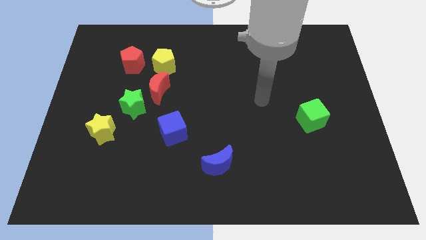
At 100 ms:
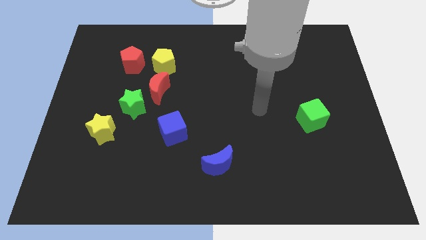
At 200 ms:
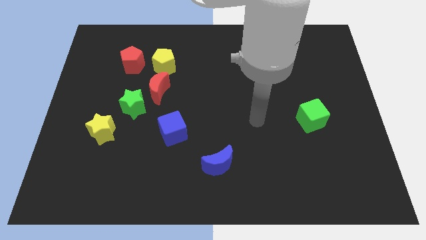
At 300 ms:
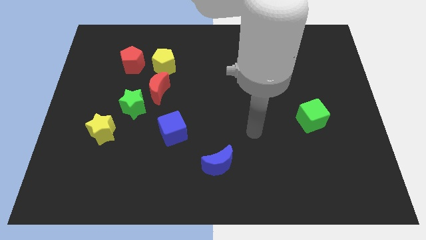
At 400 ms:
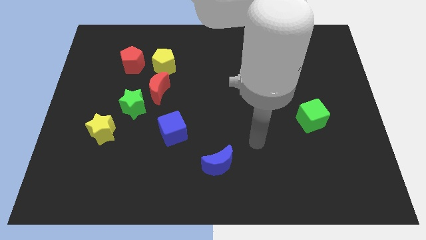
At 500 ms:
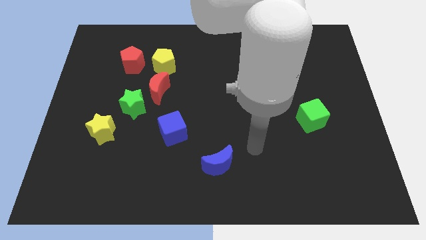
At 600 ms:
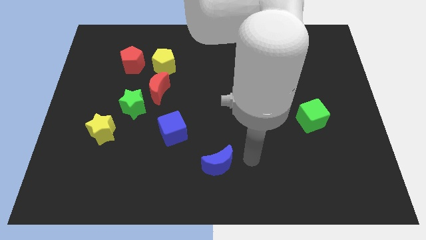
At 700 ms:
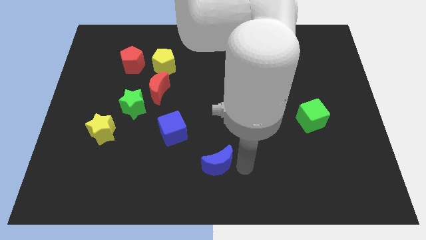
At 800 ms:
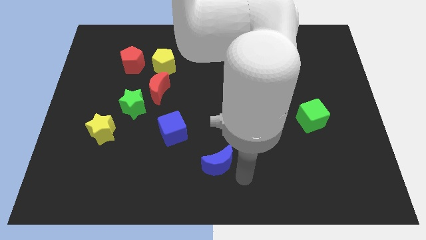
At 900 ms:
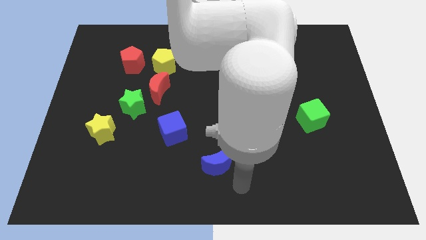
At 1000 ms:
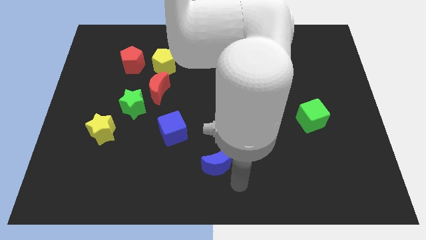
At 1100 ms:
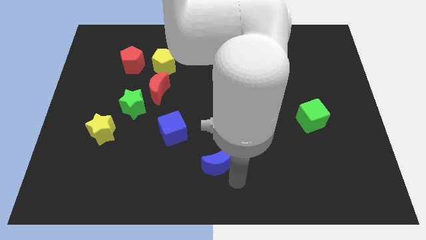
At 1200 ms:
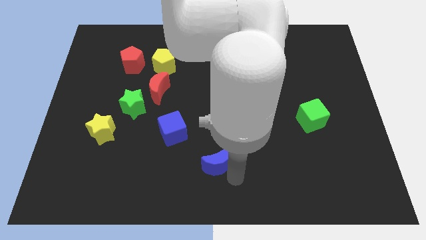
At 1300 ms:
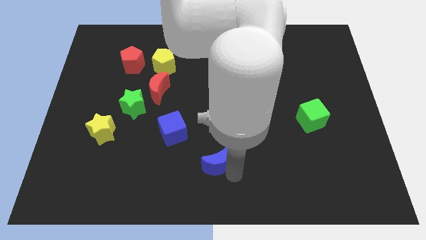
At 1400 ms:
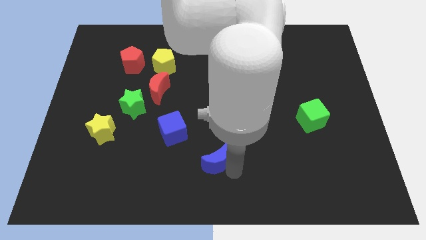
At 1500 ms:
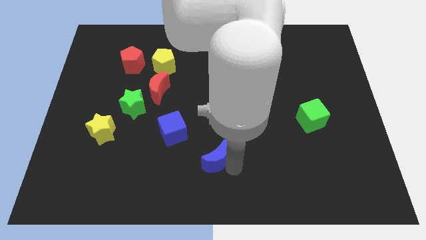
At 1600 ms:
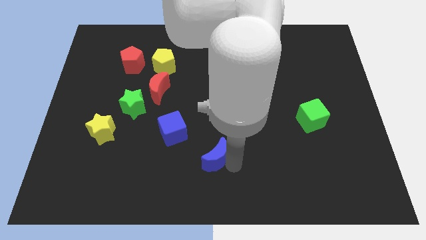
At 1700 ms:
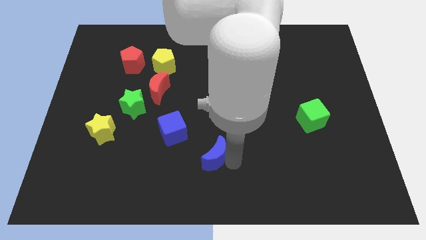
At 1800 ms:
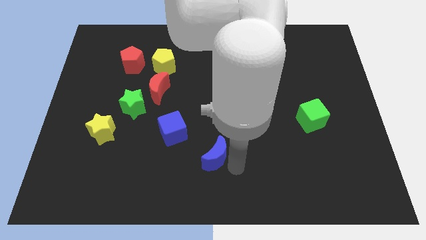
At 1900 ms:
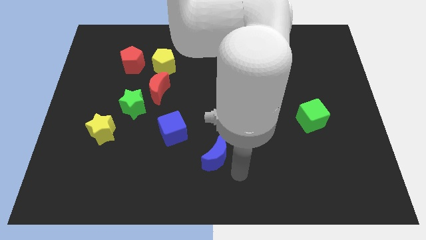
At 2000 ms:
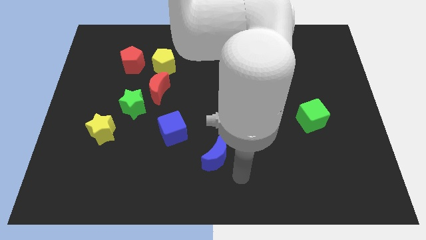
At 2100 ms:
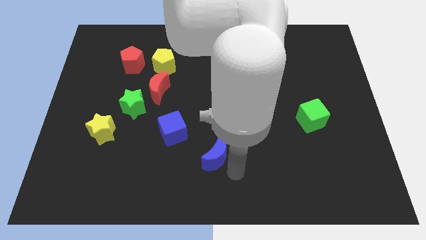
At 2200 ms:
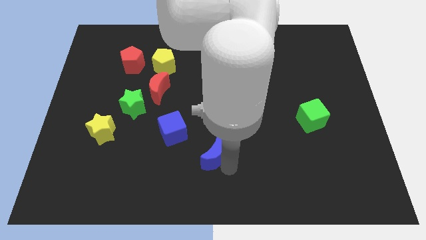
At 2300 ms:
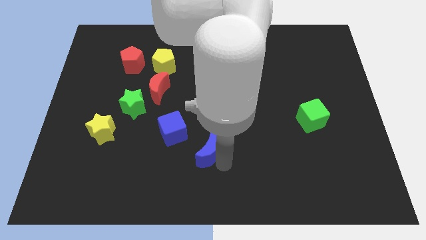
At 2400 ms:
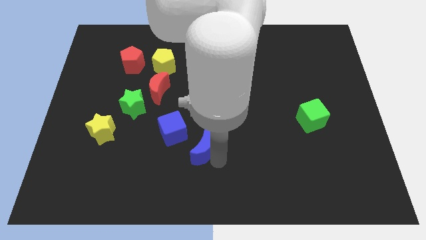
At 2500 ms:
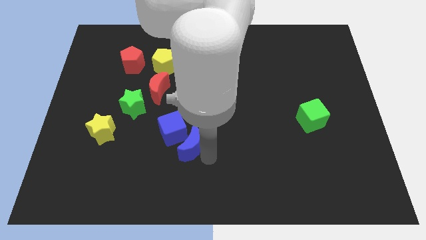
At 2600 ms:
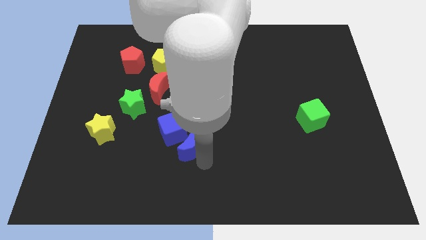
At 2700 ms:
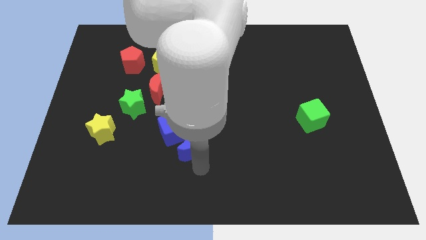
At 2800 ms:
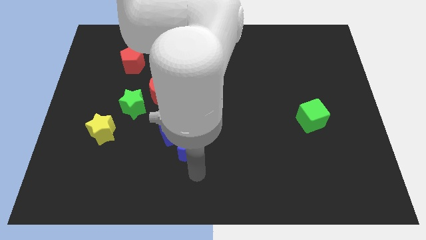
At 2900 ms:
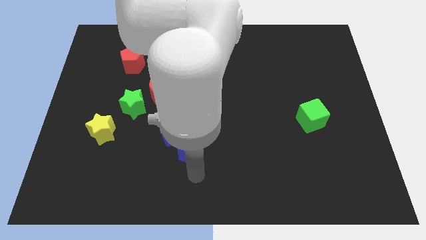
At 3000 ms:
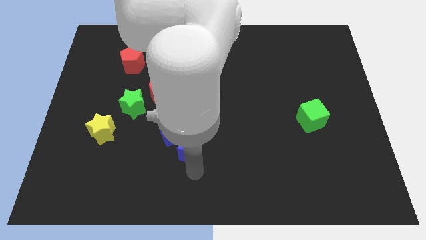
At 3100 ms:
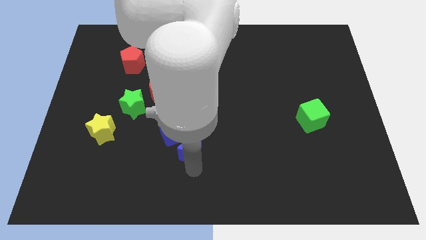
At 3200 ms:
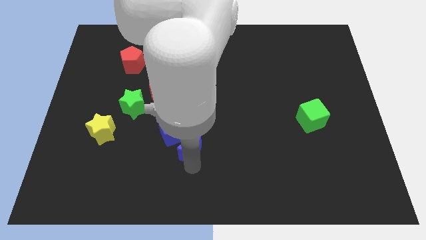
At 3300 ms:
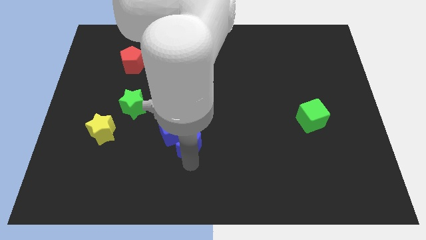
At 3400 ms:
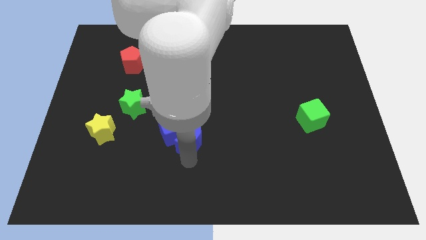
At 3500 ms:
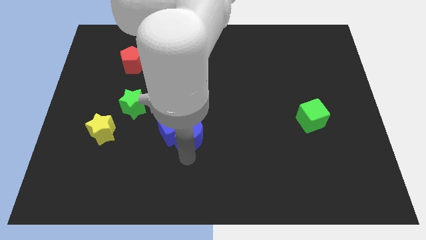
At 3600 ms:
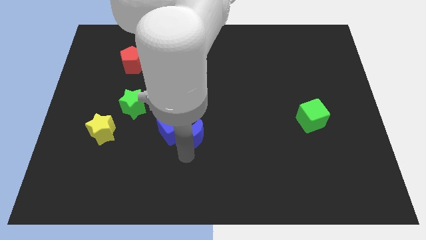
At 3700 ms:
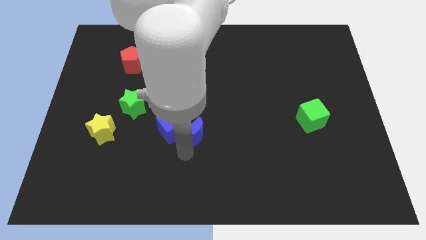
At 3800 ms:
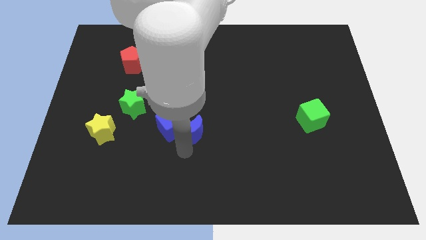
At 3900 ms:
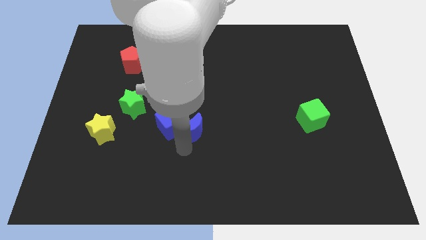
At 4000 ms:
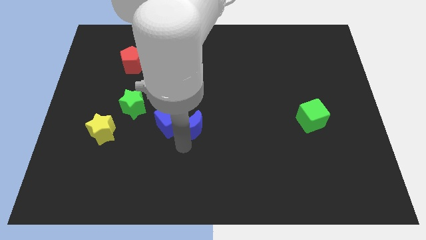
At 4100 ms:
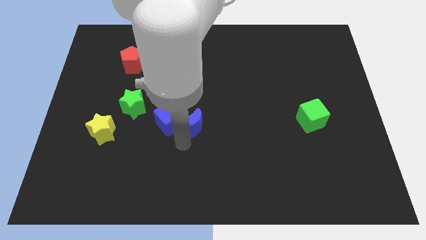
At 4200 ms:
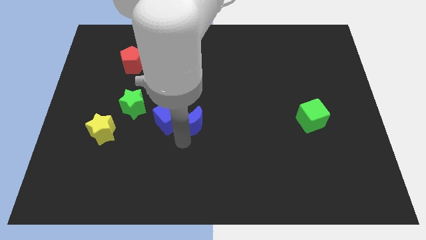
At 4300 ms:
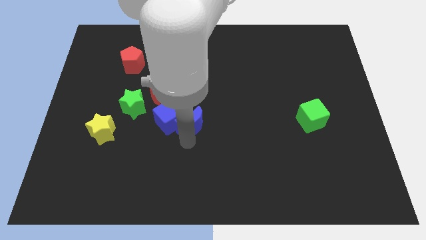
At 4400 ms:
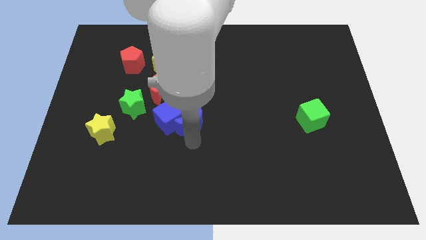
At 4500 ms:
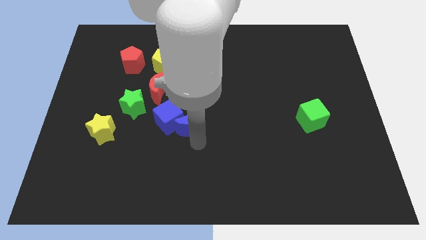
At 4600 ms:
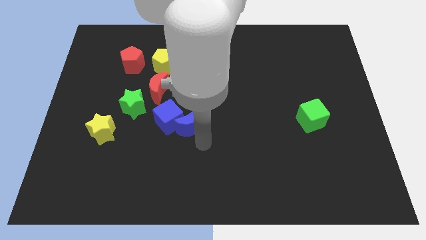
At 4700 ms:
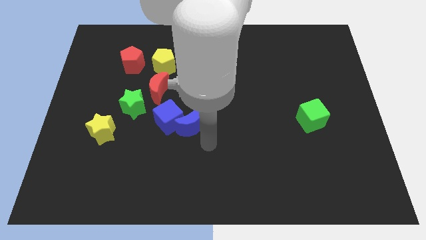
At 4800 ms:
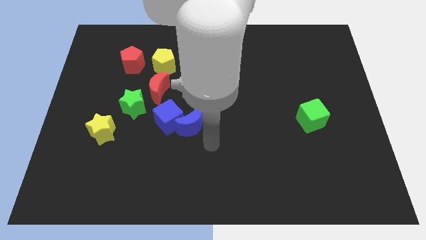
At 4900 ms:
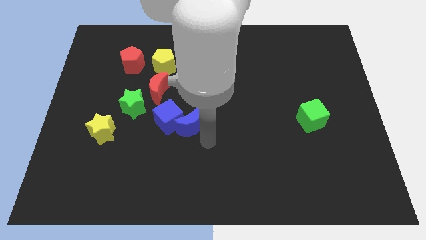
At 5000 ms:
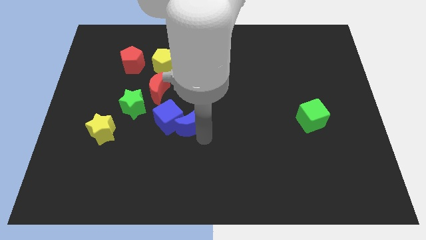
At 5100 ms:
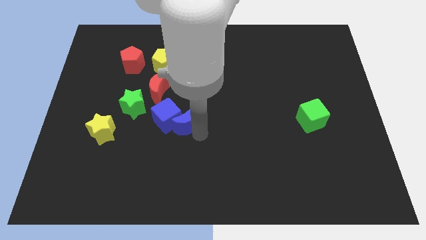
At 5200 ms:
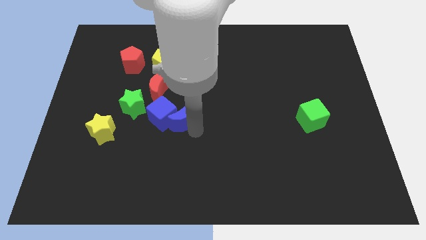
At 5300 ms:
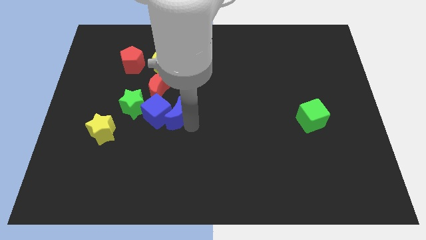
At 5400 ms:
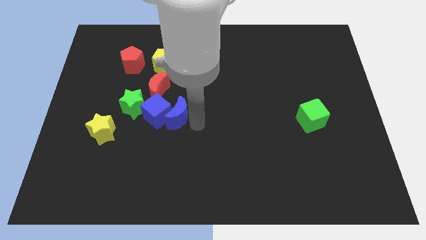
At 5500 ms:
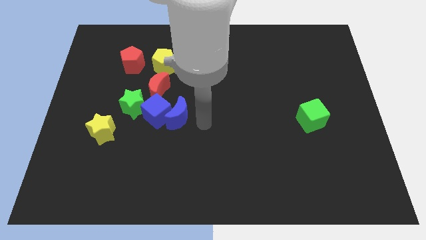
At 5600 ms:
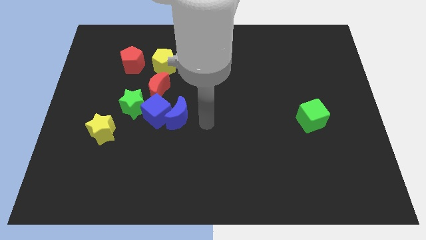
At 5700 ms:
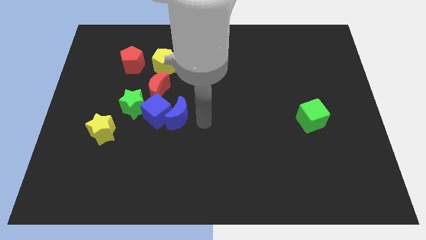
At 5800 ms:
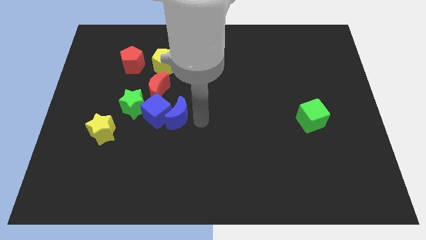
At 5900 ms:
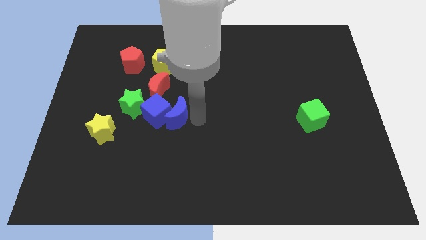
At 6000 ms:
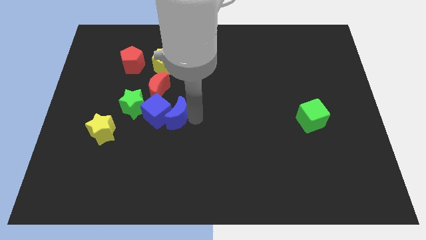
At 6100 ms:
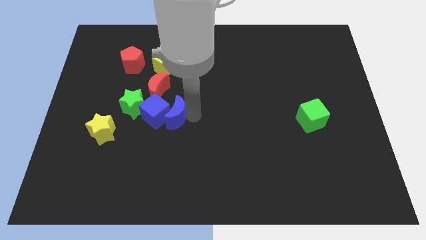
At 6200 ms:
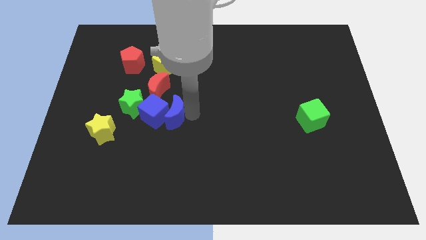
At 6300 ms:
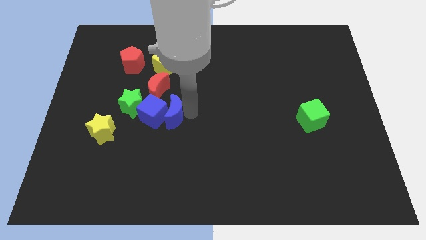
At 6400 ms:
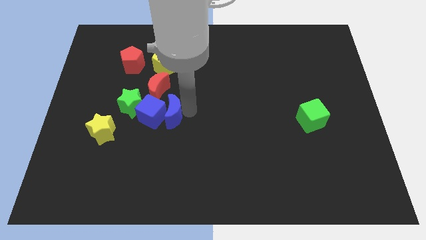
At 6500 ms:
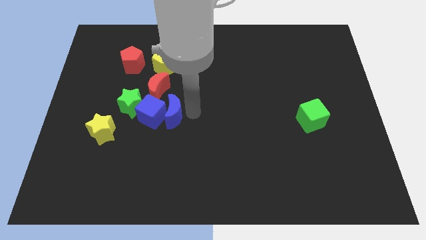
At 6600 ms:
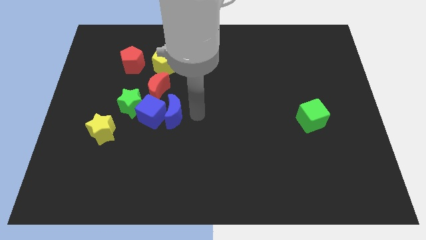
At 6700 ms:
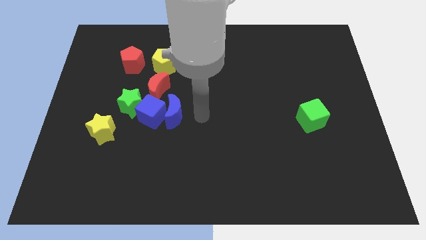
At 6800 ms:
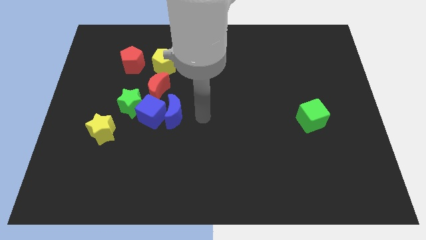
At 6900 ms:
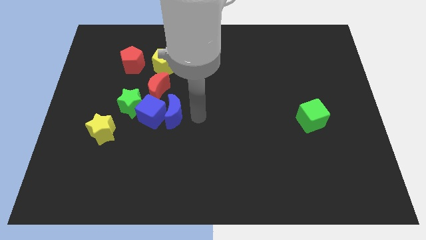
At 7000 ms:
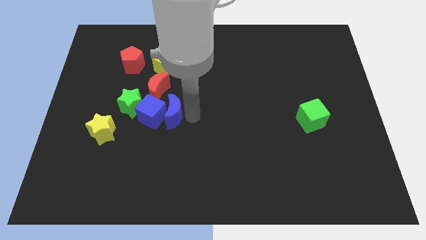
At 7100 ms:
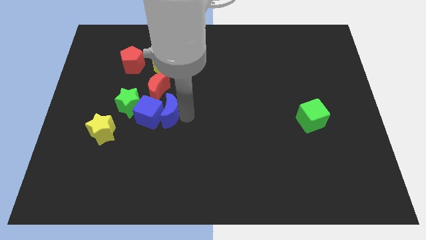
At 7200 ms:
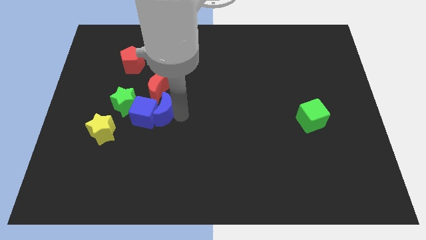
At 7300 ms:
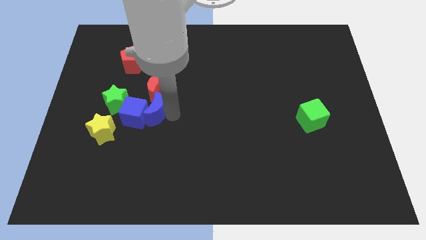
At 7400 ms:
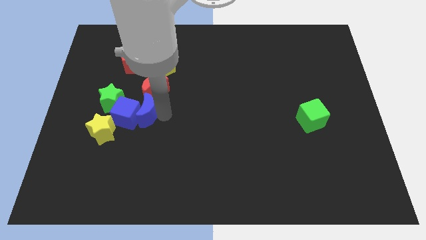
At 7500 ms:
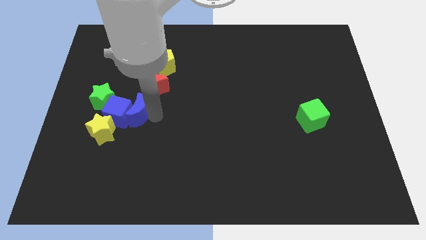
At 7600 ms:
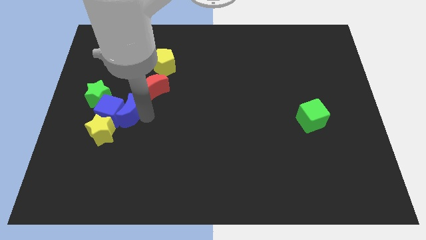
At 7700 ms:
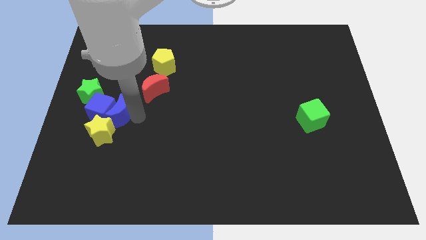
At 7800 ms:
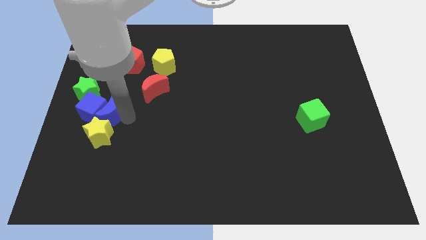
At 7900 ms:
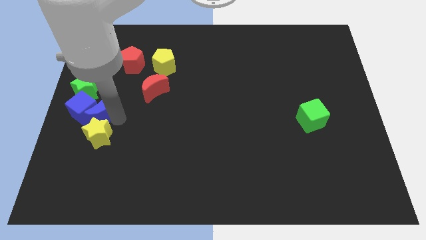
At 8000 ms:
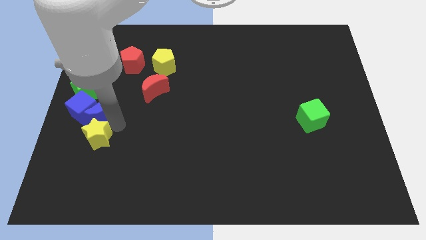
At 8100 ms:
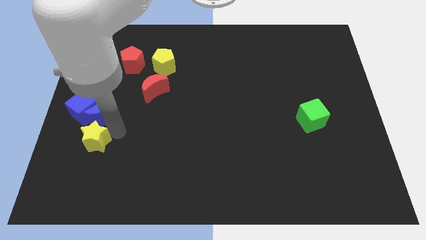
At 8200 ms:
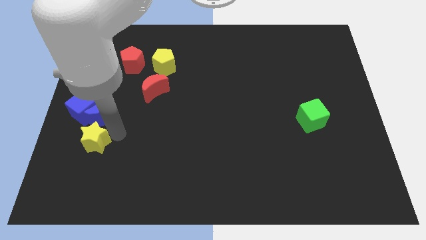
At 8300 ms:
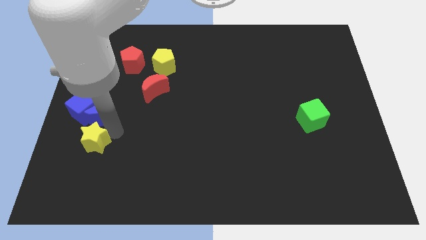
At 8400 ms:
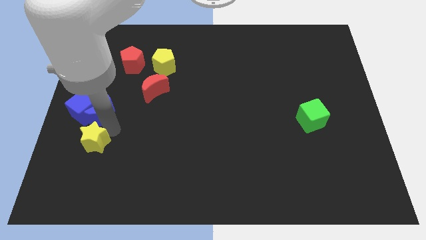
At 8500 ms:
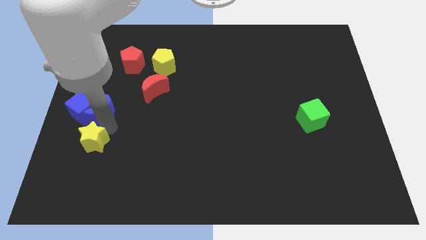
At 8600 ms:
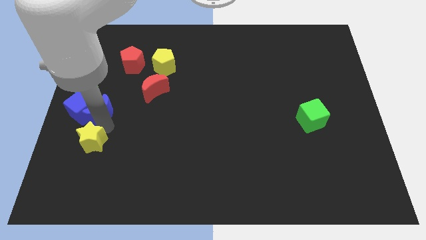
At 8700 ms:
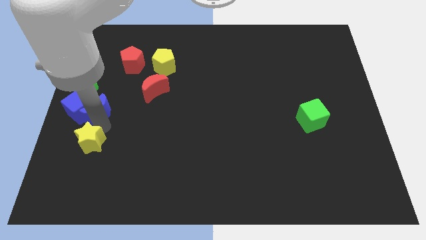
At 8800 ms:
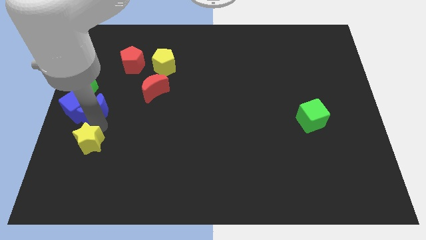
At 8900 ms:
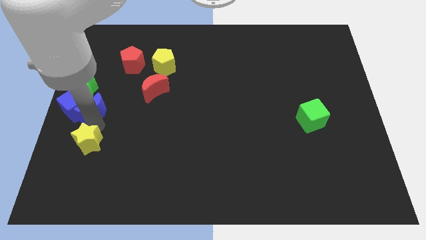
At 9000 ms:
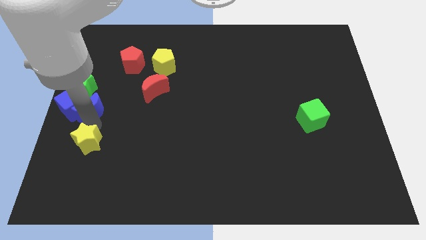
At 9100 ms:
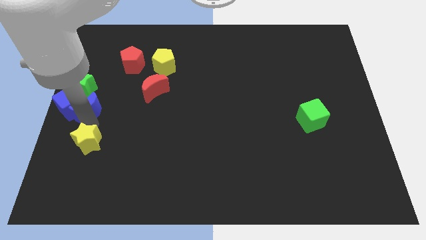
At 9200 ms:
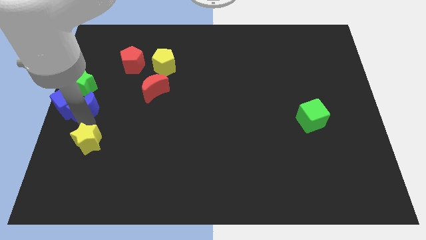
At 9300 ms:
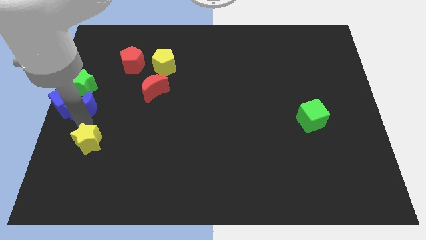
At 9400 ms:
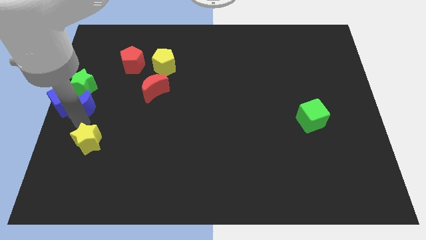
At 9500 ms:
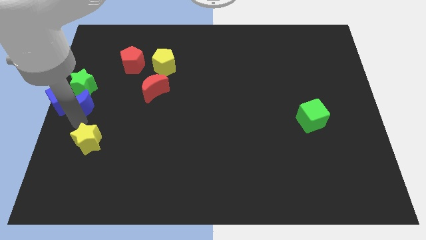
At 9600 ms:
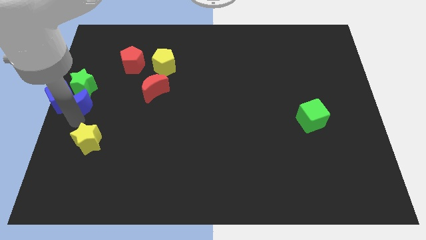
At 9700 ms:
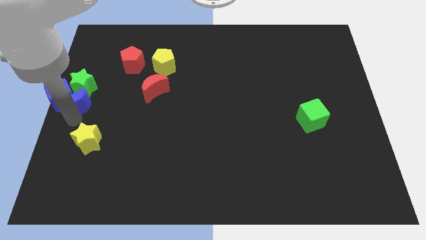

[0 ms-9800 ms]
slide the blue moon to the green star
